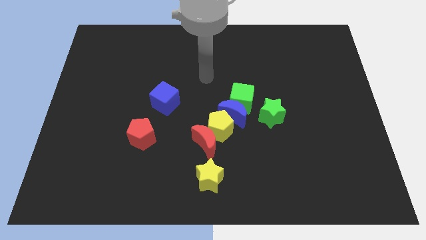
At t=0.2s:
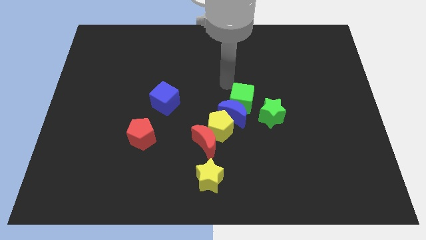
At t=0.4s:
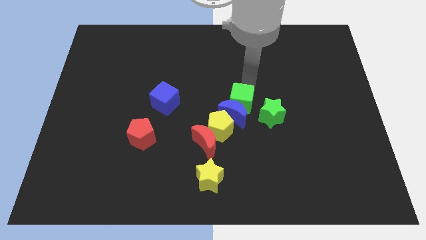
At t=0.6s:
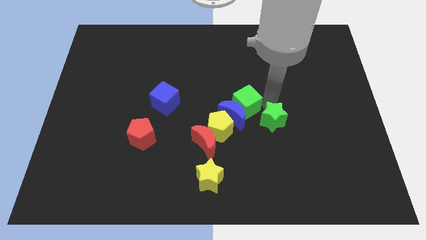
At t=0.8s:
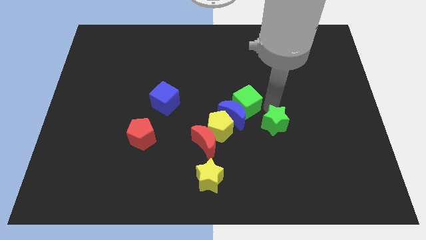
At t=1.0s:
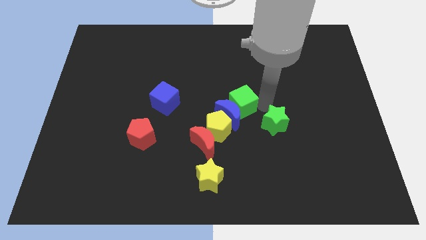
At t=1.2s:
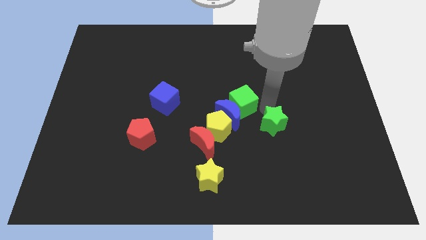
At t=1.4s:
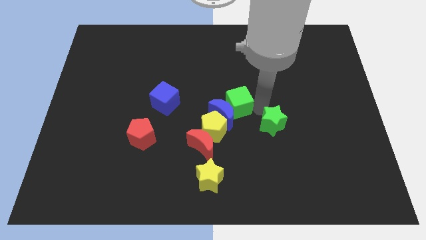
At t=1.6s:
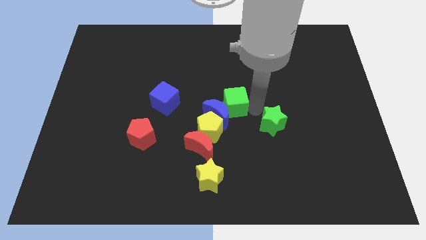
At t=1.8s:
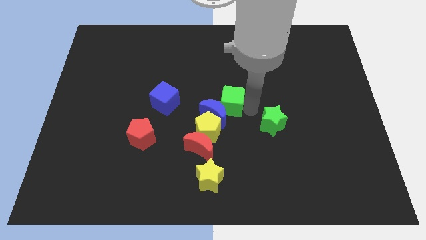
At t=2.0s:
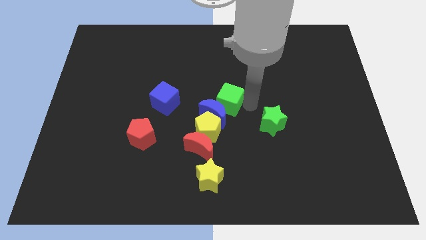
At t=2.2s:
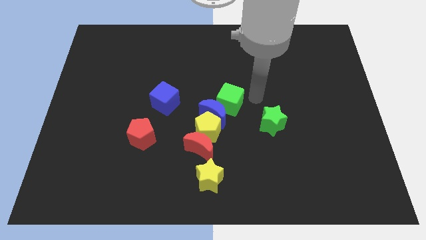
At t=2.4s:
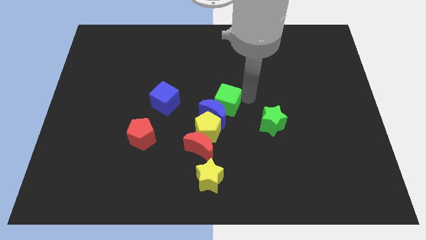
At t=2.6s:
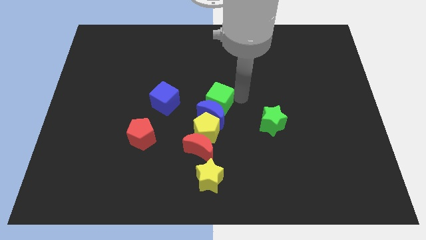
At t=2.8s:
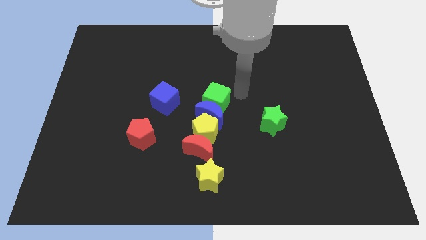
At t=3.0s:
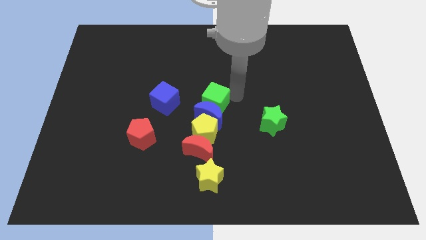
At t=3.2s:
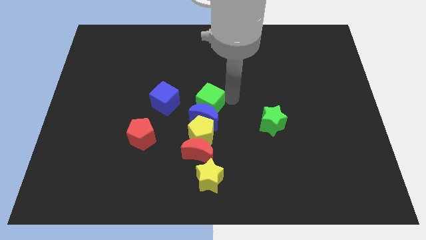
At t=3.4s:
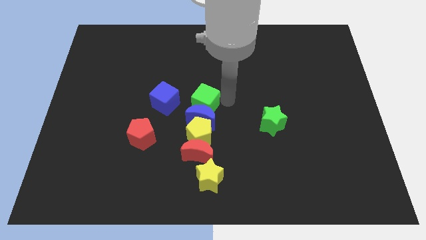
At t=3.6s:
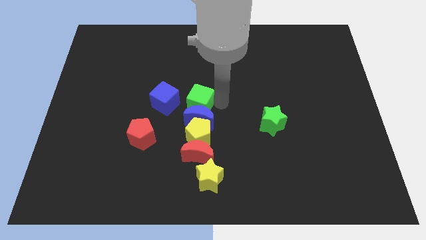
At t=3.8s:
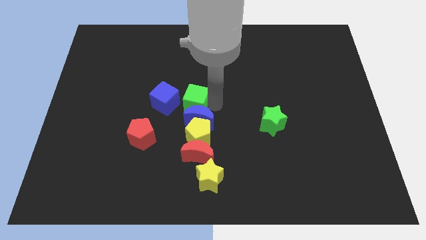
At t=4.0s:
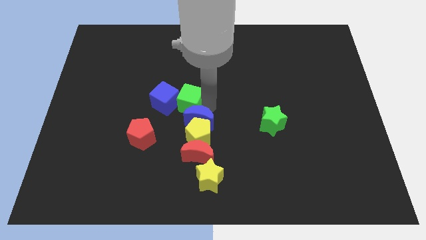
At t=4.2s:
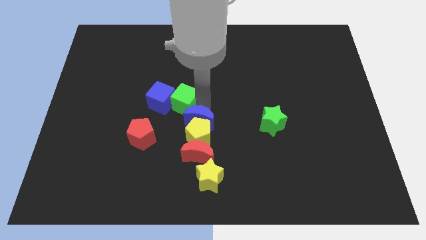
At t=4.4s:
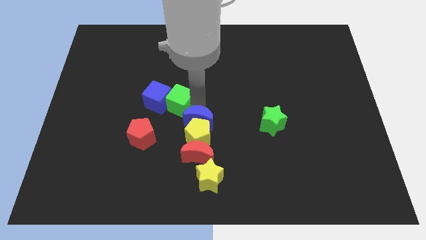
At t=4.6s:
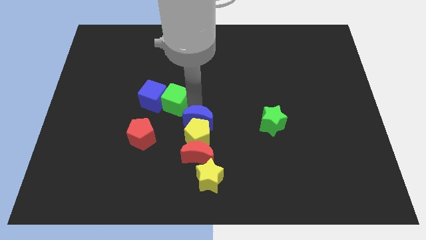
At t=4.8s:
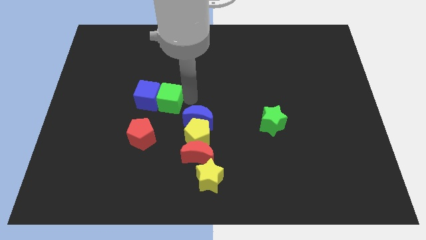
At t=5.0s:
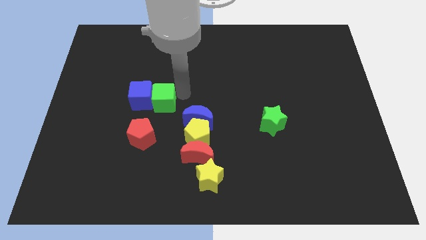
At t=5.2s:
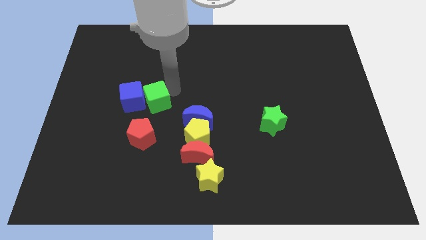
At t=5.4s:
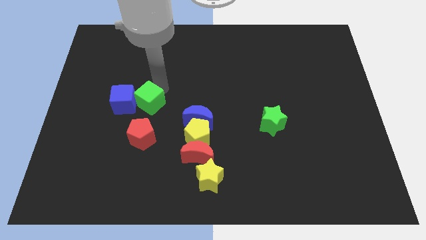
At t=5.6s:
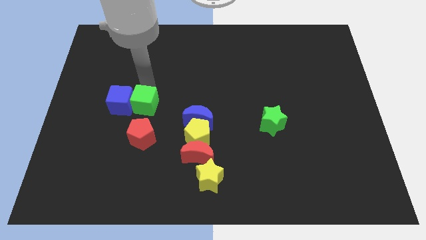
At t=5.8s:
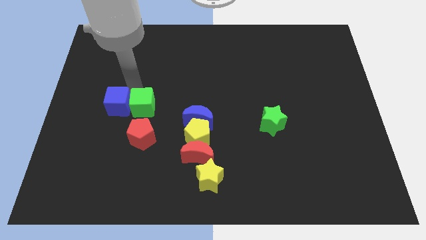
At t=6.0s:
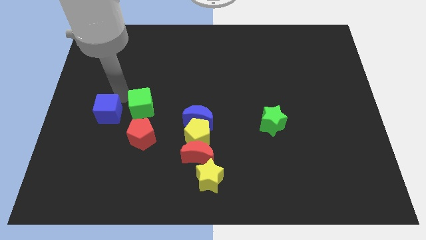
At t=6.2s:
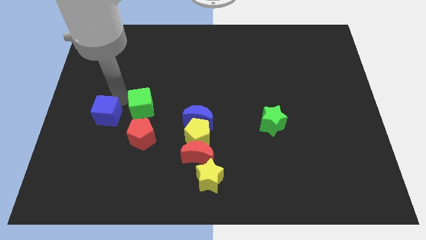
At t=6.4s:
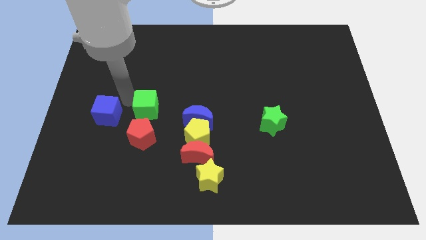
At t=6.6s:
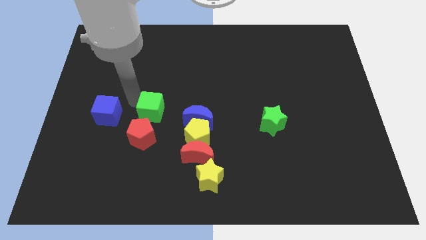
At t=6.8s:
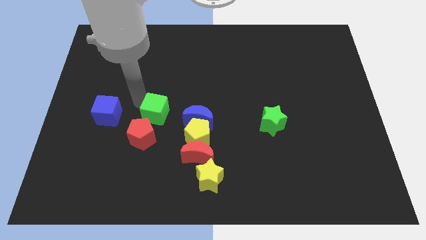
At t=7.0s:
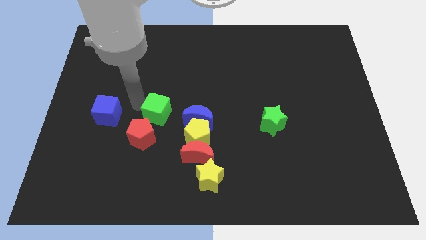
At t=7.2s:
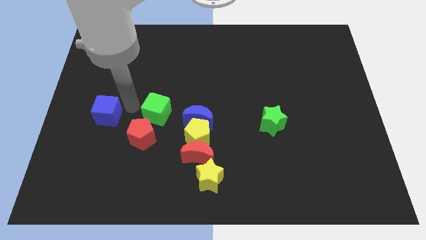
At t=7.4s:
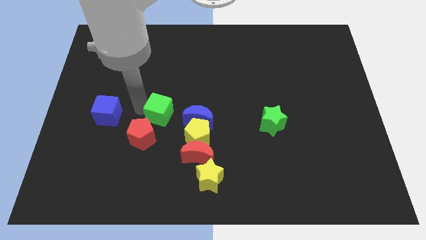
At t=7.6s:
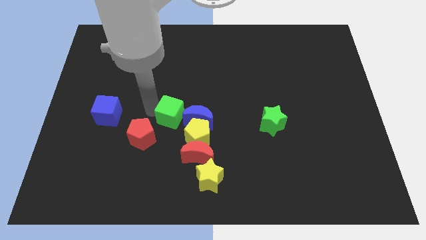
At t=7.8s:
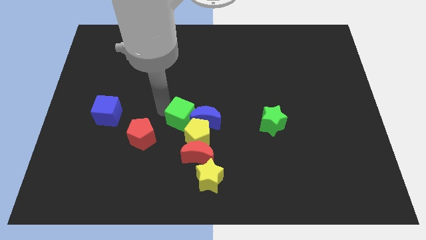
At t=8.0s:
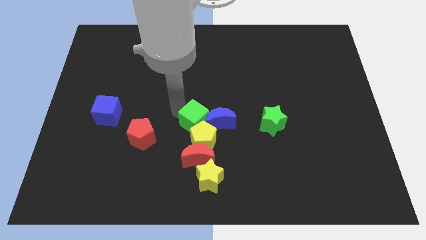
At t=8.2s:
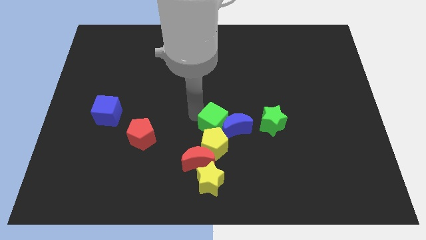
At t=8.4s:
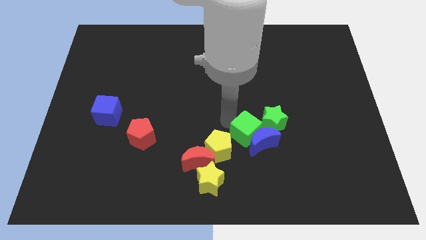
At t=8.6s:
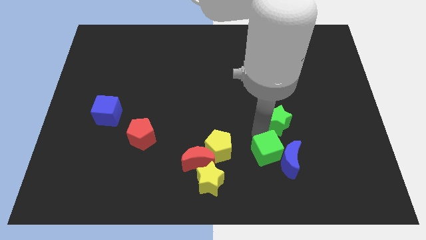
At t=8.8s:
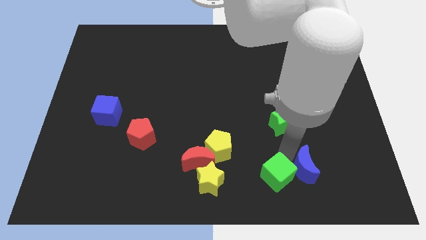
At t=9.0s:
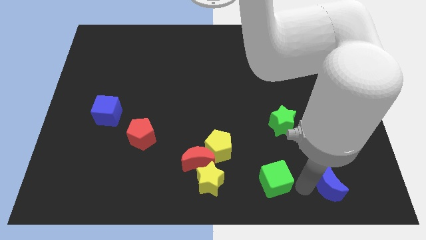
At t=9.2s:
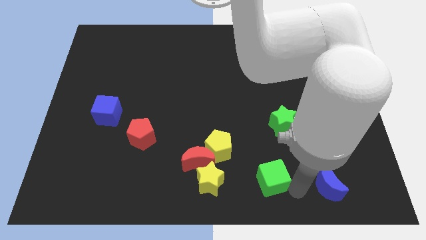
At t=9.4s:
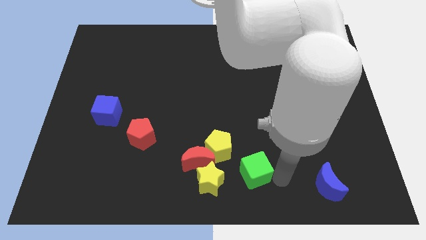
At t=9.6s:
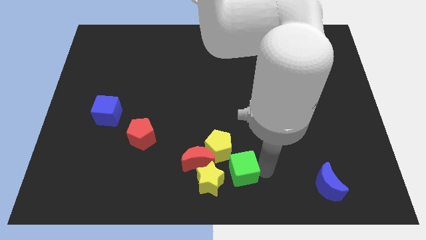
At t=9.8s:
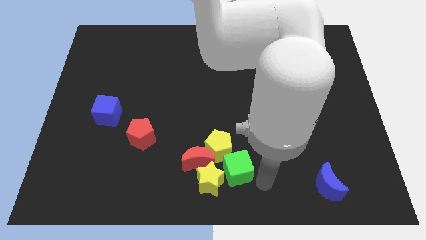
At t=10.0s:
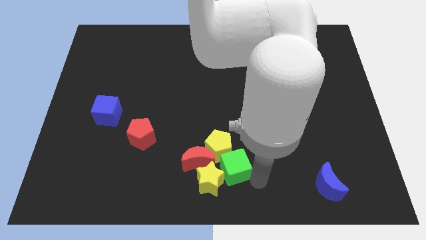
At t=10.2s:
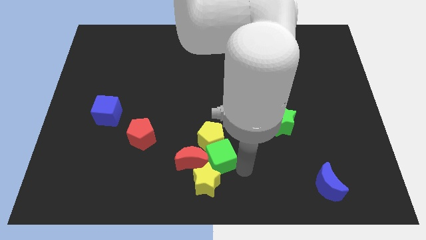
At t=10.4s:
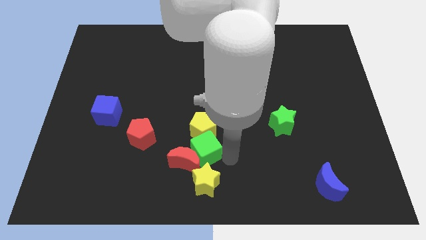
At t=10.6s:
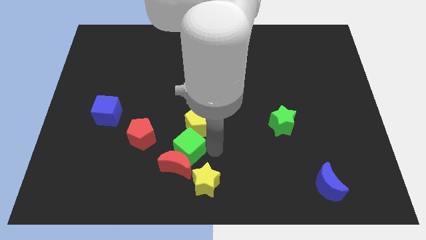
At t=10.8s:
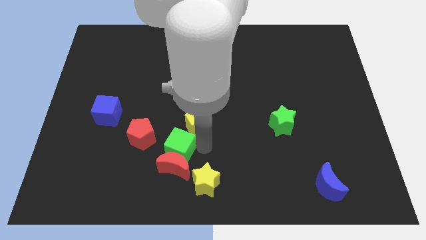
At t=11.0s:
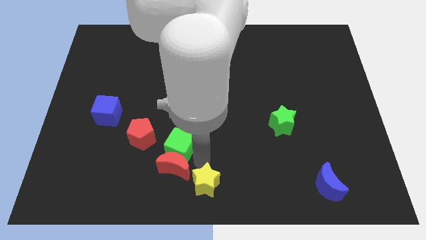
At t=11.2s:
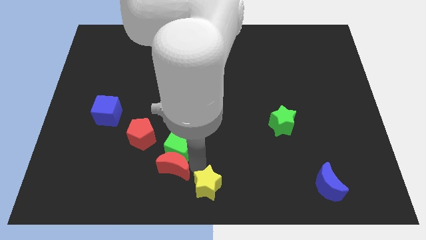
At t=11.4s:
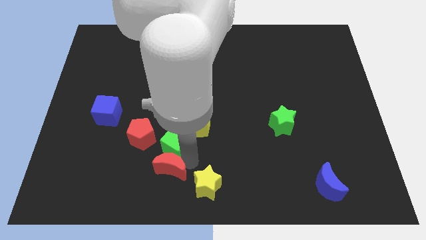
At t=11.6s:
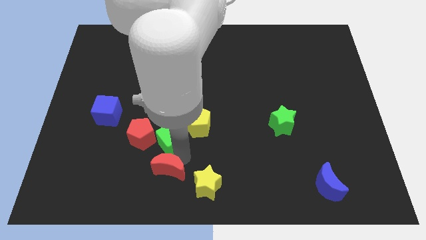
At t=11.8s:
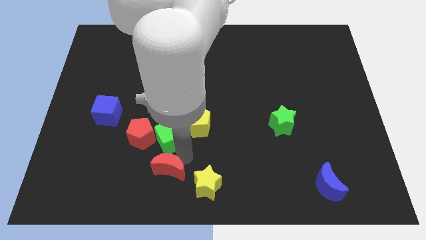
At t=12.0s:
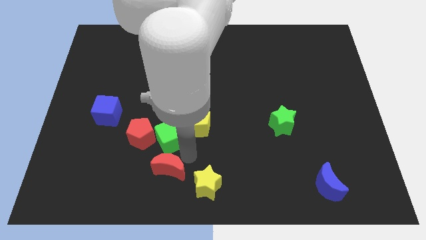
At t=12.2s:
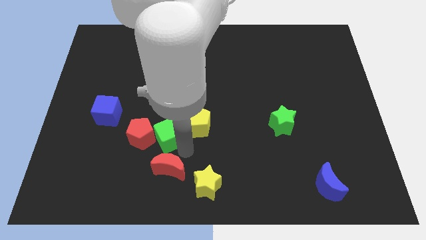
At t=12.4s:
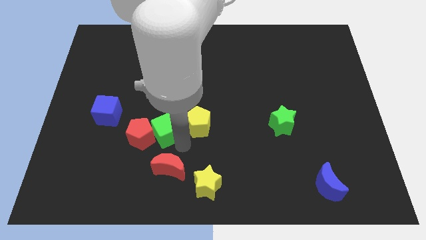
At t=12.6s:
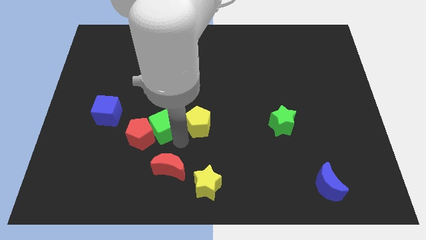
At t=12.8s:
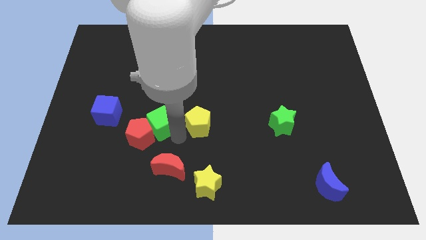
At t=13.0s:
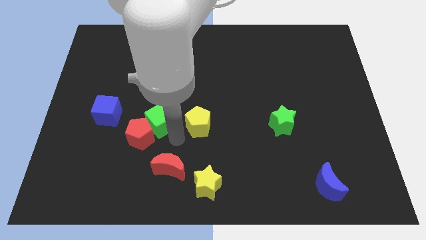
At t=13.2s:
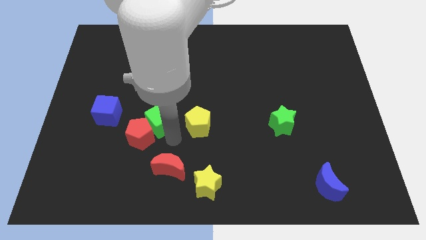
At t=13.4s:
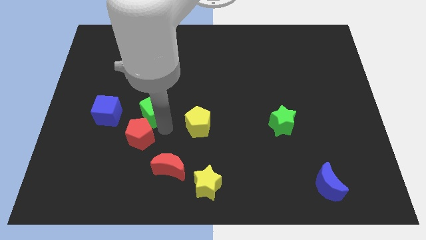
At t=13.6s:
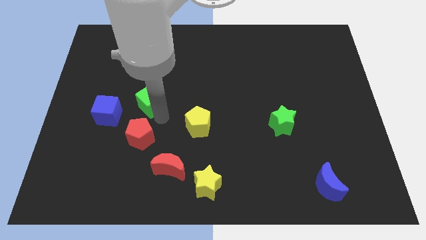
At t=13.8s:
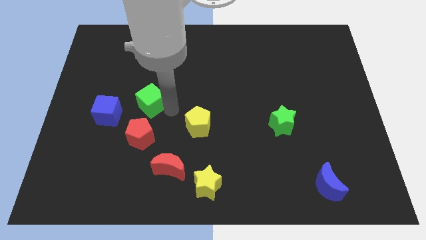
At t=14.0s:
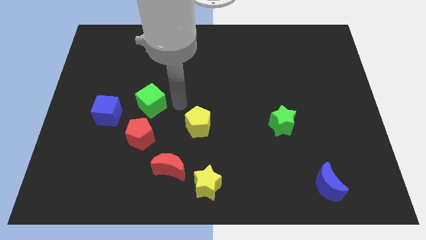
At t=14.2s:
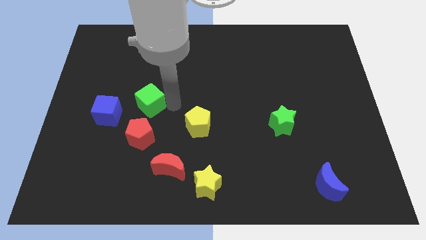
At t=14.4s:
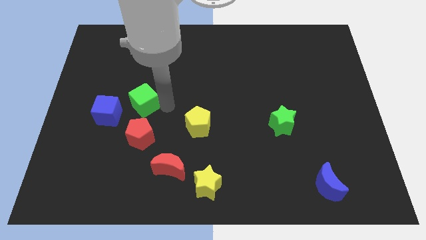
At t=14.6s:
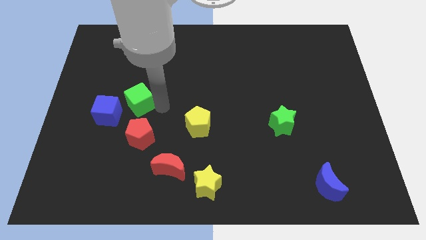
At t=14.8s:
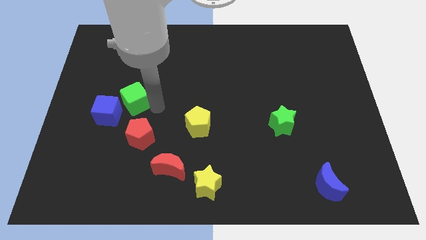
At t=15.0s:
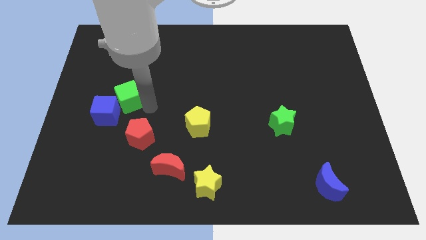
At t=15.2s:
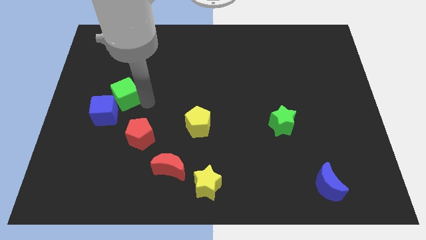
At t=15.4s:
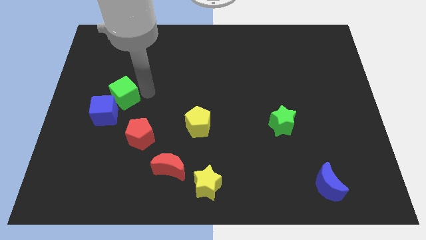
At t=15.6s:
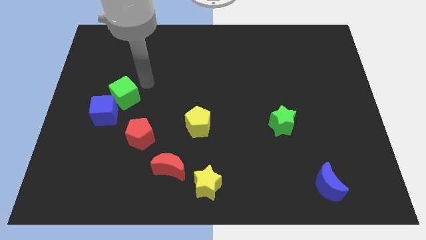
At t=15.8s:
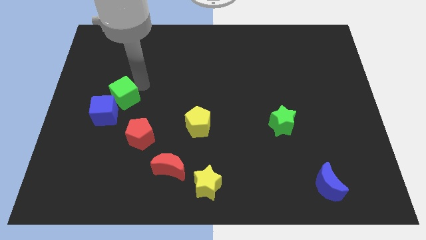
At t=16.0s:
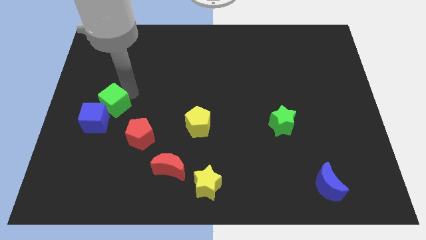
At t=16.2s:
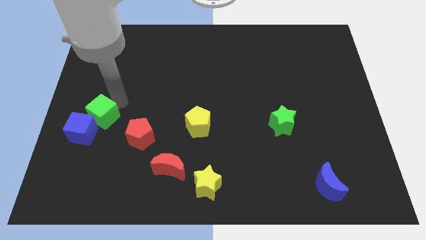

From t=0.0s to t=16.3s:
slide the green cube to the center left

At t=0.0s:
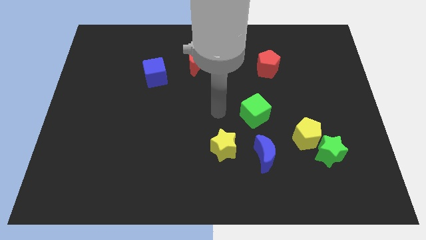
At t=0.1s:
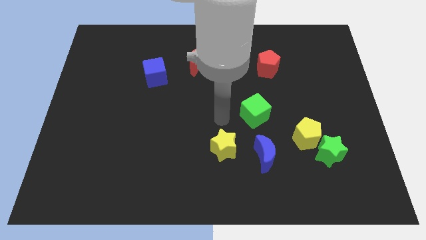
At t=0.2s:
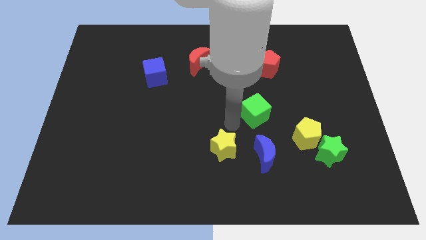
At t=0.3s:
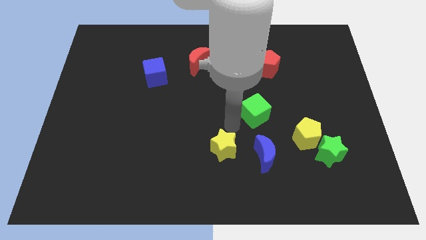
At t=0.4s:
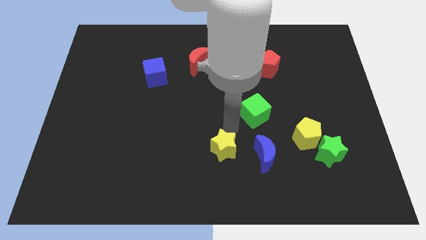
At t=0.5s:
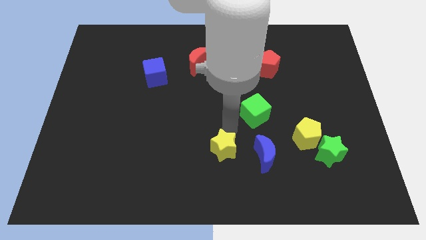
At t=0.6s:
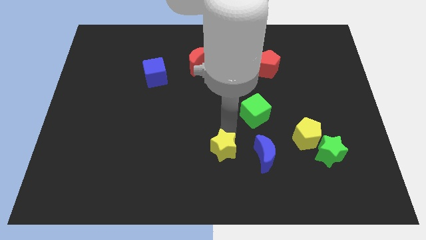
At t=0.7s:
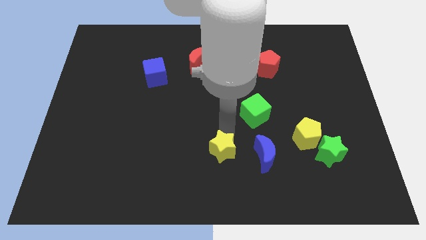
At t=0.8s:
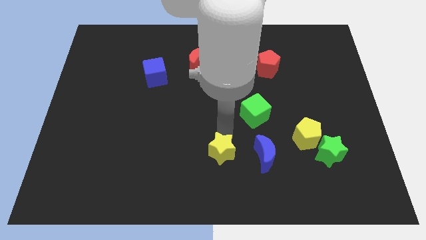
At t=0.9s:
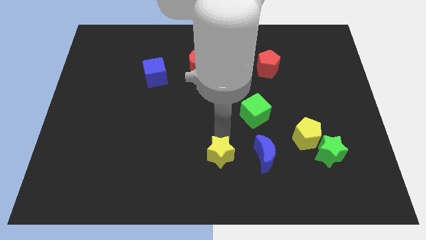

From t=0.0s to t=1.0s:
put the yellow star to the bottom side
